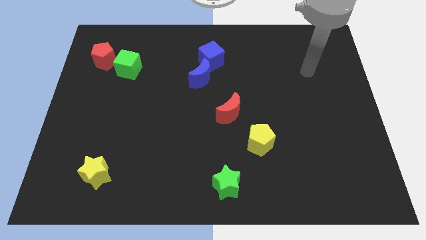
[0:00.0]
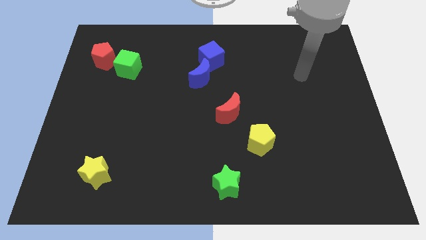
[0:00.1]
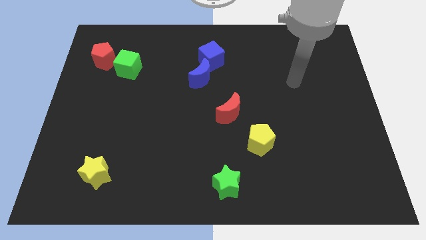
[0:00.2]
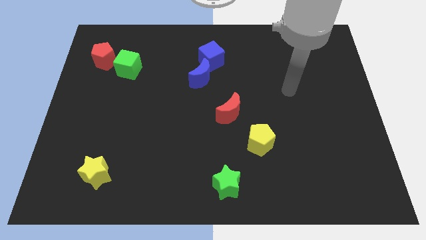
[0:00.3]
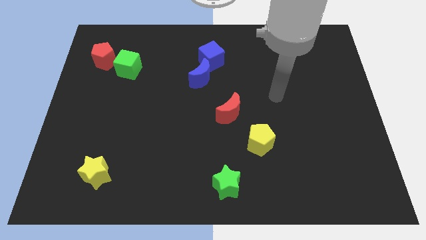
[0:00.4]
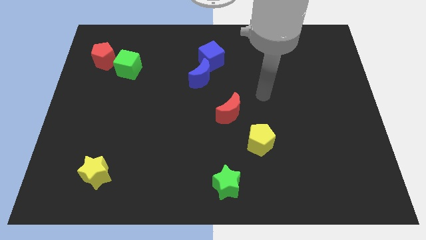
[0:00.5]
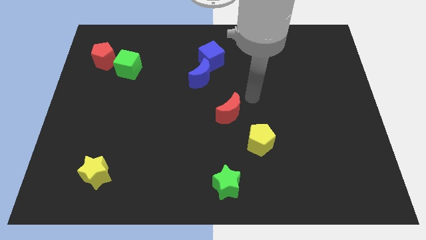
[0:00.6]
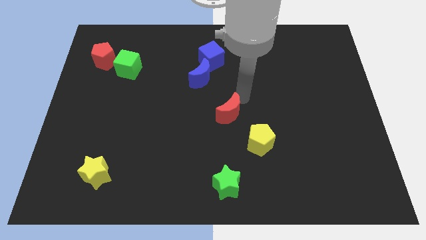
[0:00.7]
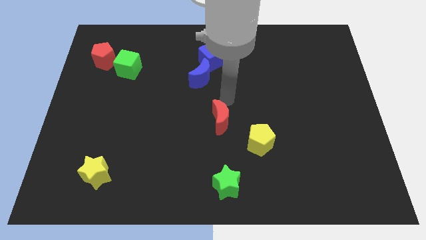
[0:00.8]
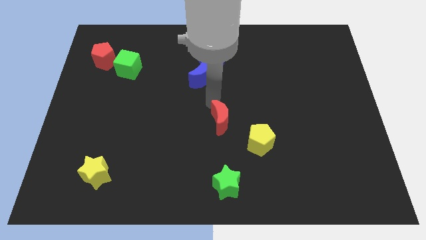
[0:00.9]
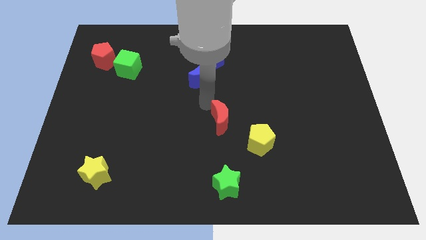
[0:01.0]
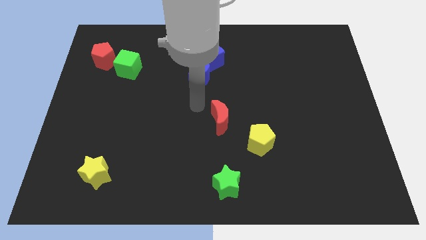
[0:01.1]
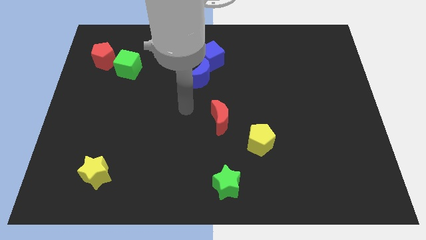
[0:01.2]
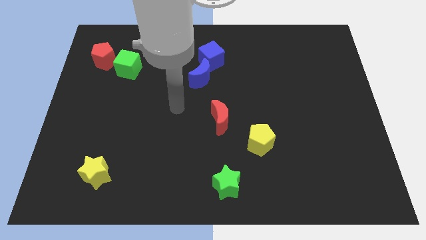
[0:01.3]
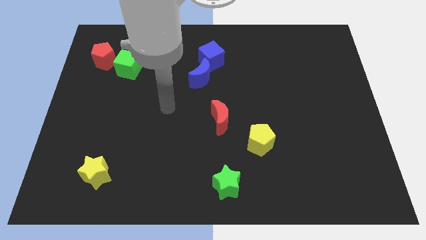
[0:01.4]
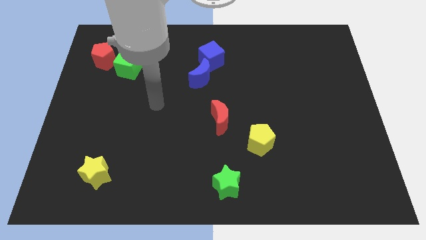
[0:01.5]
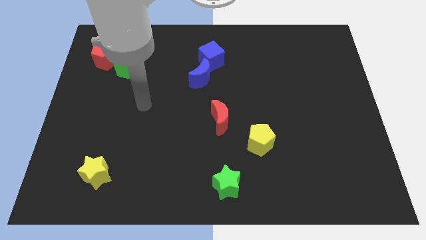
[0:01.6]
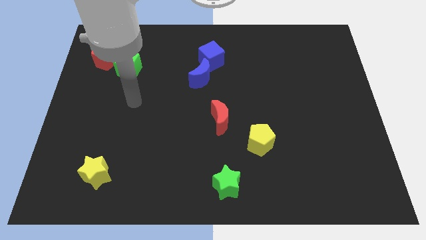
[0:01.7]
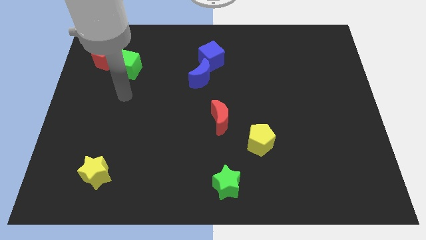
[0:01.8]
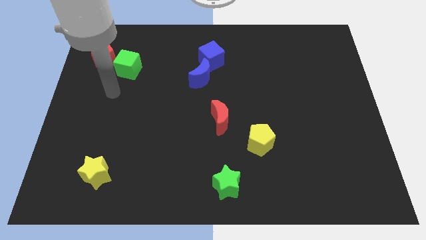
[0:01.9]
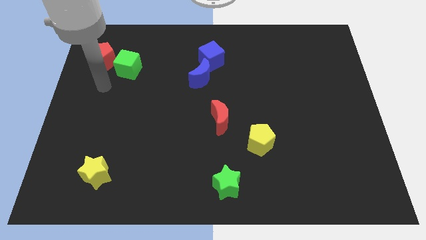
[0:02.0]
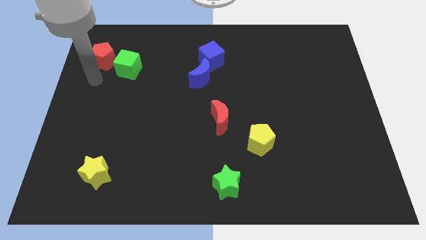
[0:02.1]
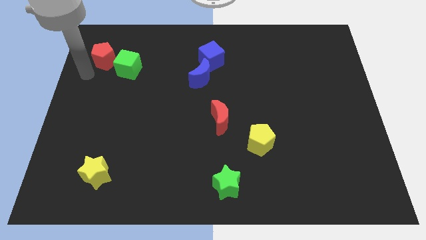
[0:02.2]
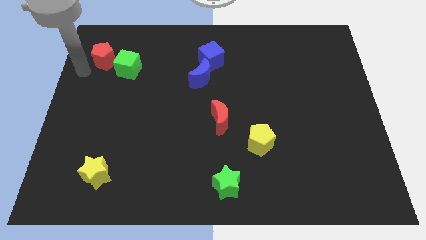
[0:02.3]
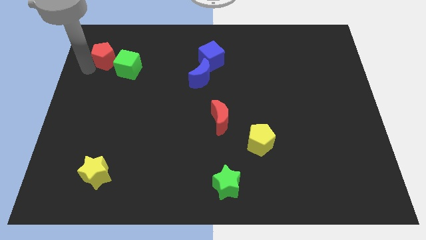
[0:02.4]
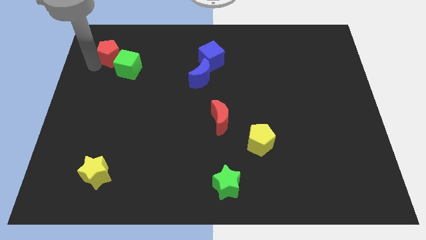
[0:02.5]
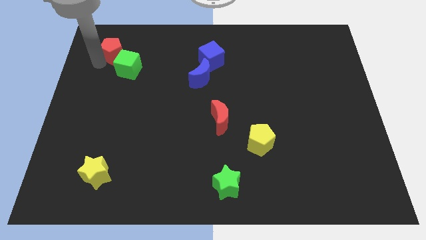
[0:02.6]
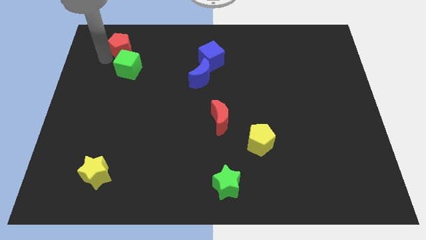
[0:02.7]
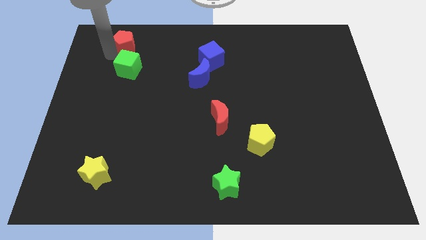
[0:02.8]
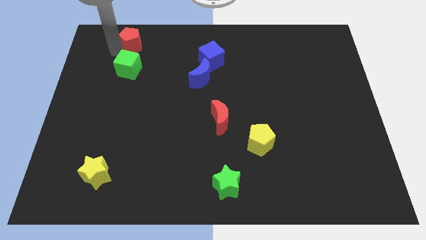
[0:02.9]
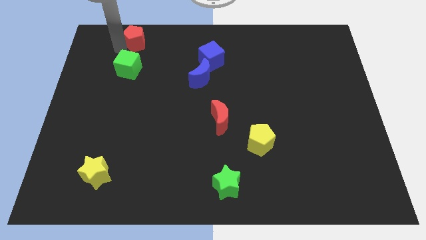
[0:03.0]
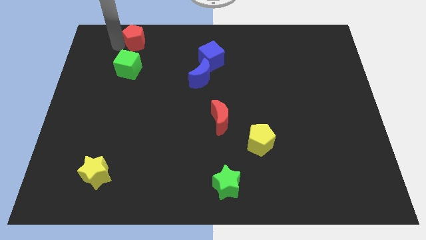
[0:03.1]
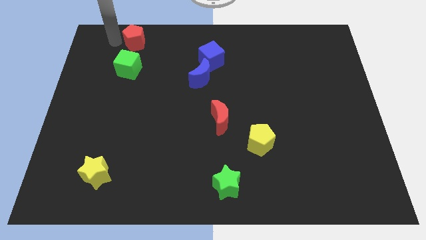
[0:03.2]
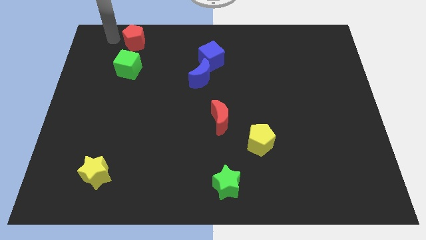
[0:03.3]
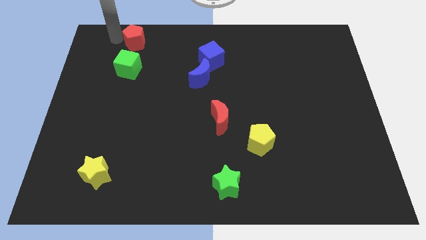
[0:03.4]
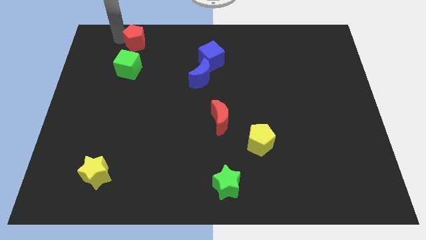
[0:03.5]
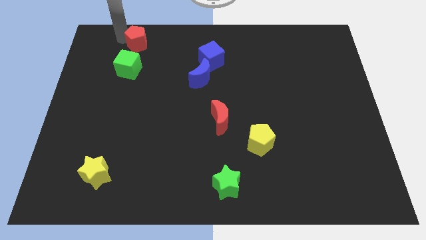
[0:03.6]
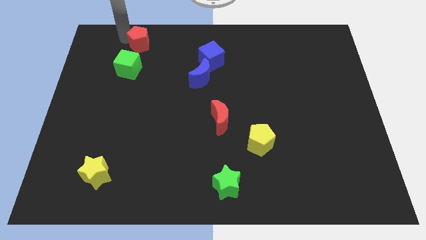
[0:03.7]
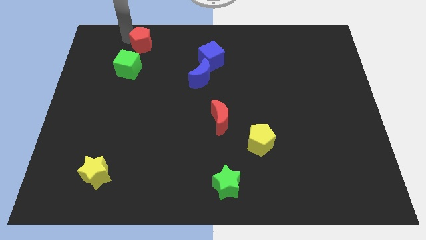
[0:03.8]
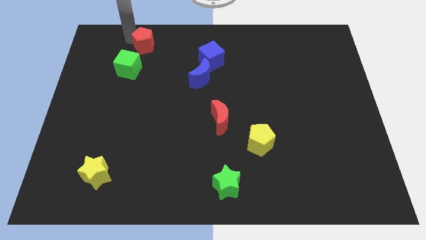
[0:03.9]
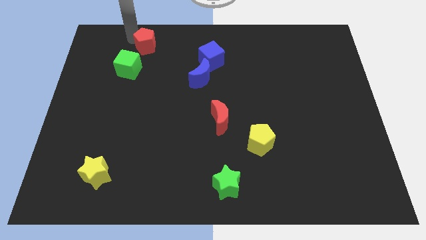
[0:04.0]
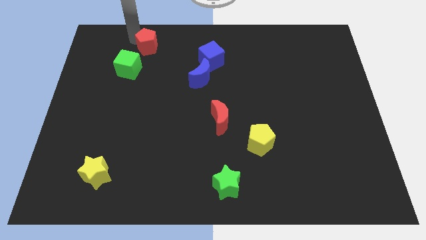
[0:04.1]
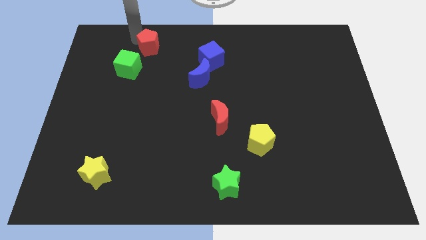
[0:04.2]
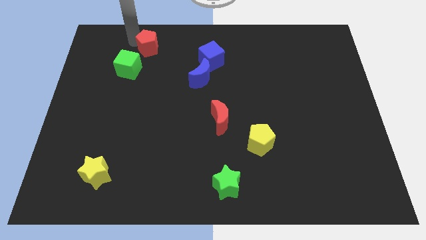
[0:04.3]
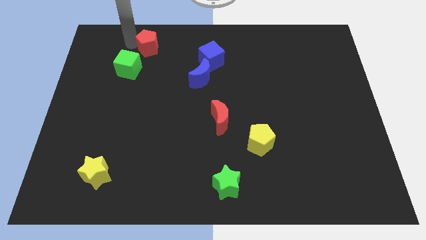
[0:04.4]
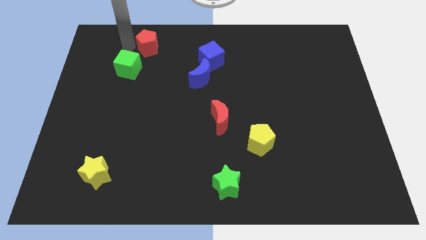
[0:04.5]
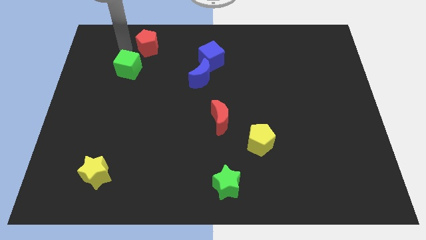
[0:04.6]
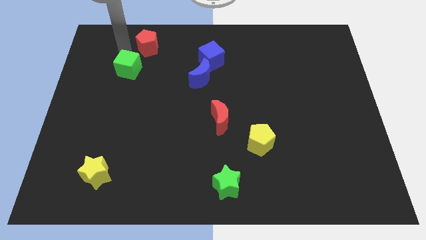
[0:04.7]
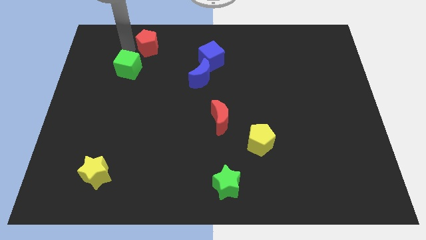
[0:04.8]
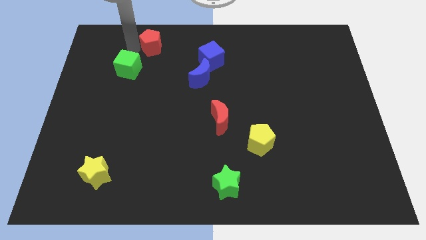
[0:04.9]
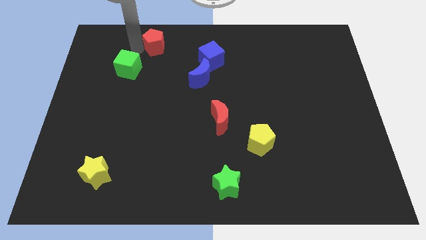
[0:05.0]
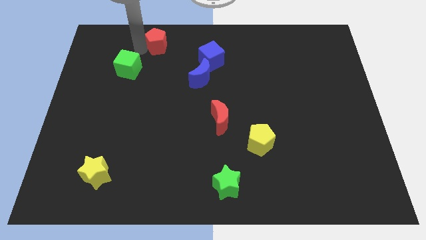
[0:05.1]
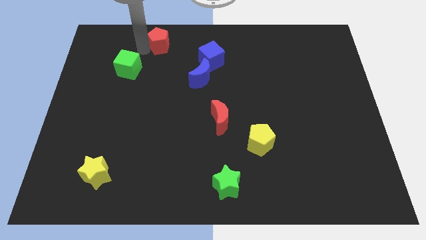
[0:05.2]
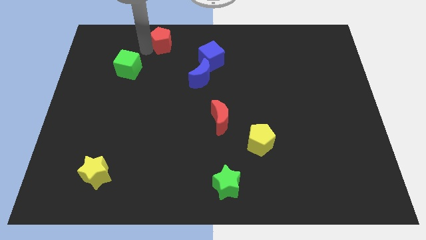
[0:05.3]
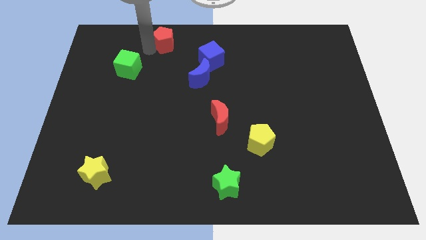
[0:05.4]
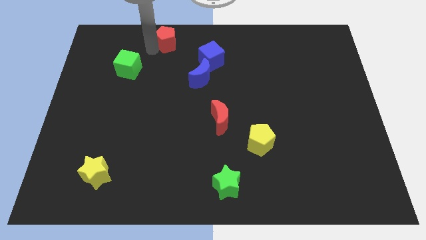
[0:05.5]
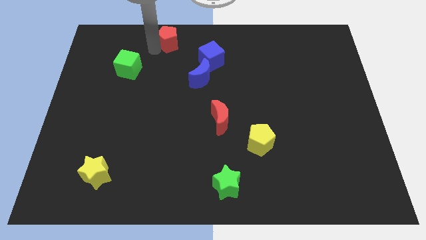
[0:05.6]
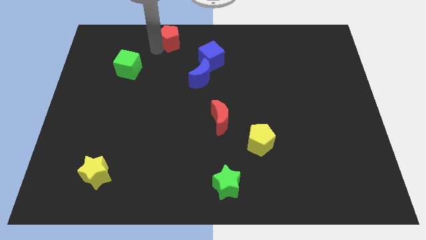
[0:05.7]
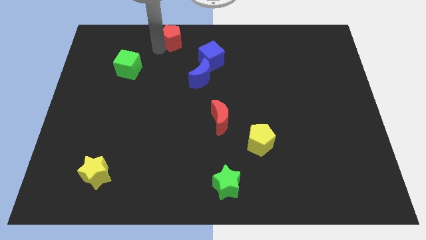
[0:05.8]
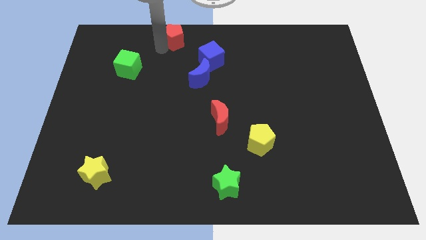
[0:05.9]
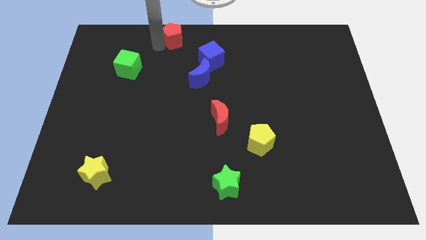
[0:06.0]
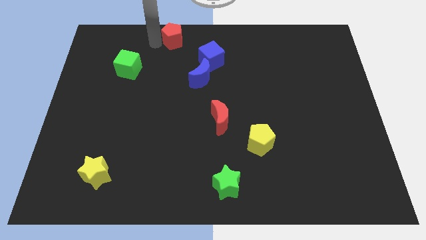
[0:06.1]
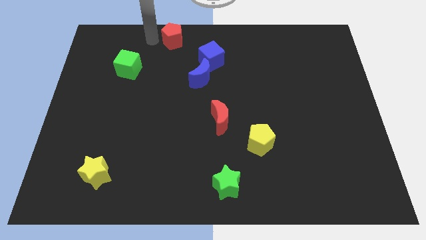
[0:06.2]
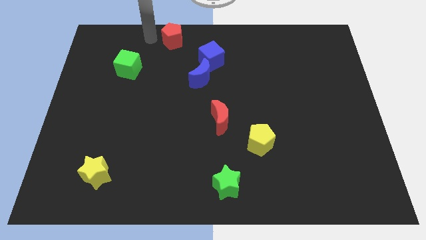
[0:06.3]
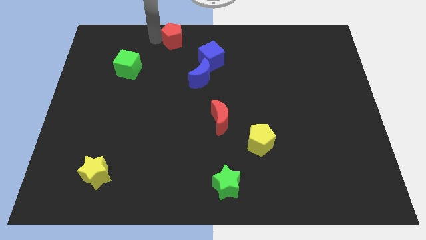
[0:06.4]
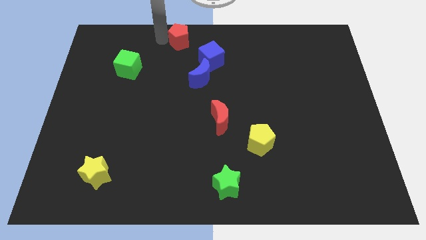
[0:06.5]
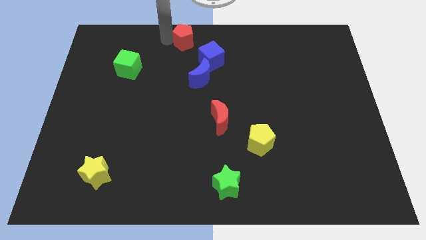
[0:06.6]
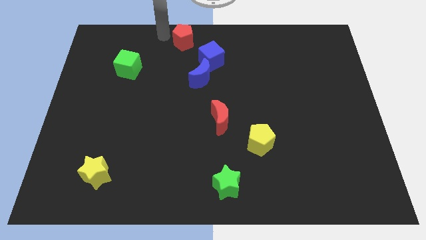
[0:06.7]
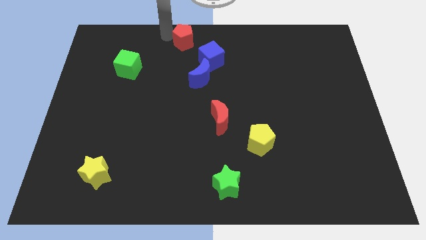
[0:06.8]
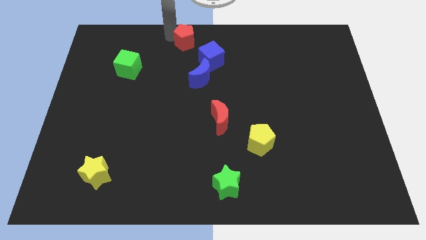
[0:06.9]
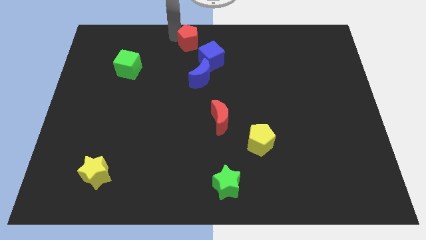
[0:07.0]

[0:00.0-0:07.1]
push the red pentagon to the right

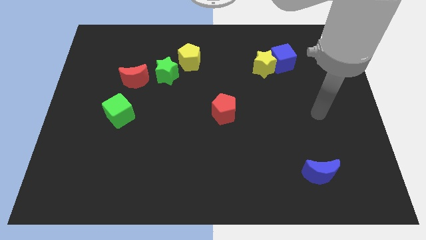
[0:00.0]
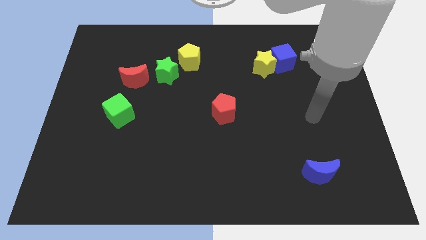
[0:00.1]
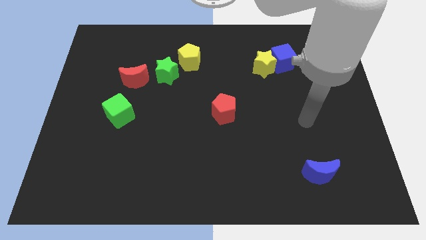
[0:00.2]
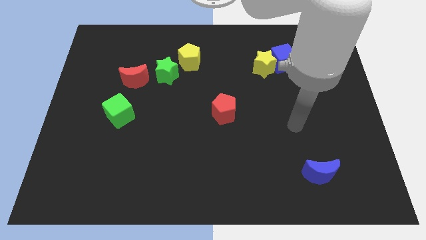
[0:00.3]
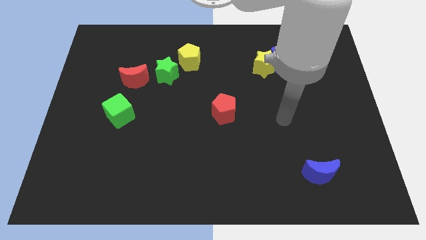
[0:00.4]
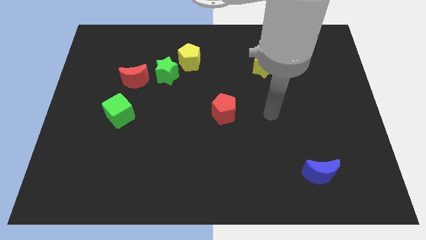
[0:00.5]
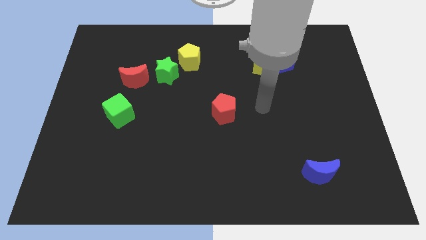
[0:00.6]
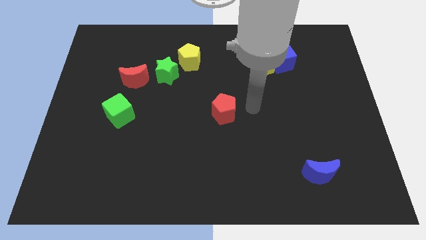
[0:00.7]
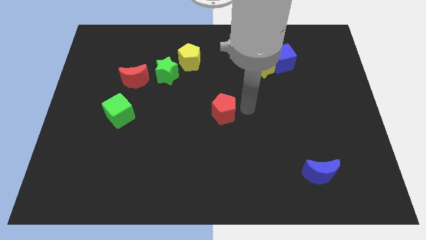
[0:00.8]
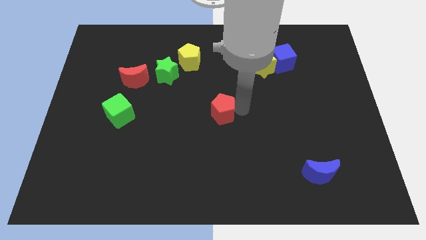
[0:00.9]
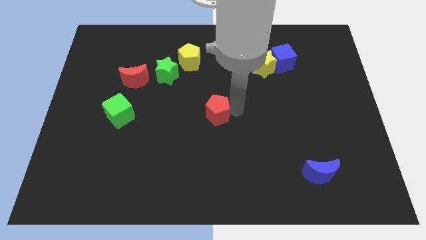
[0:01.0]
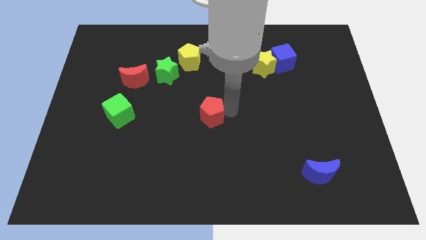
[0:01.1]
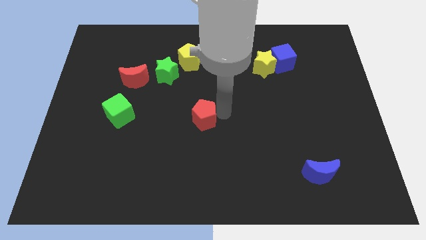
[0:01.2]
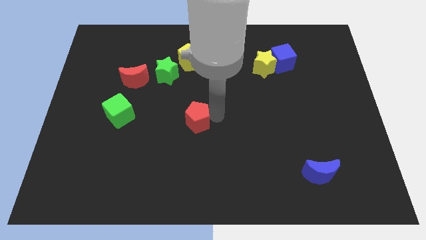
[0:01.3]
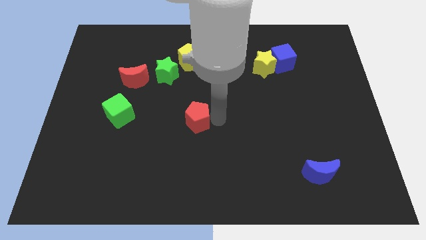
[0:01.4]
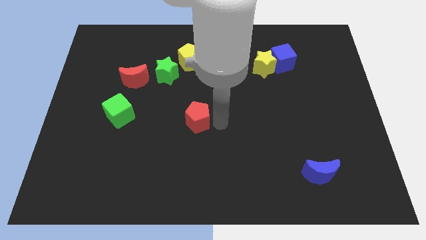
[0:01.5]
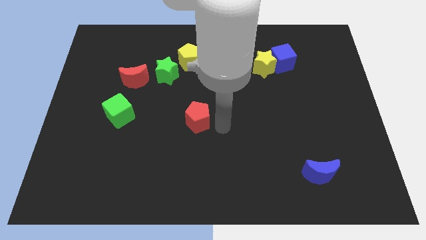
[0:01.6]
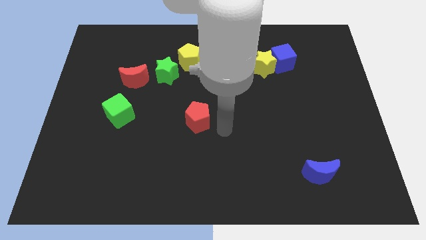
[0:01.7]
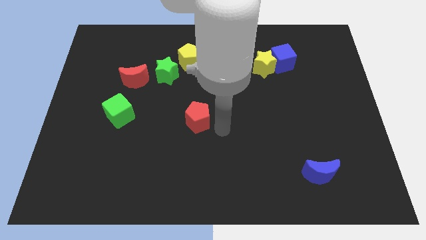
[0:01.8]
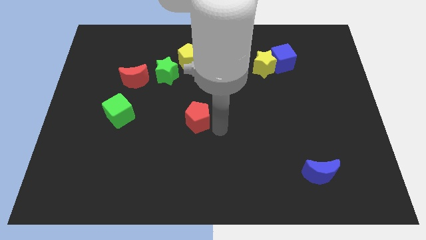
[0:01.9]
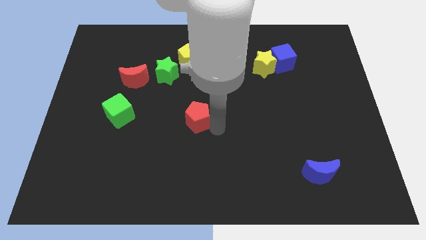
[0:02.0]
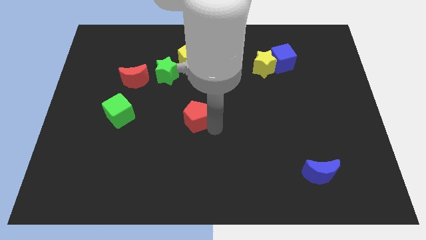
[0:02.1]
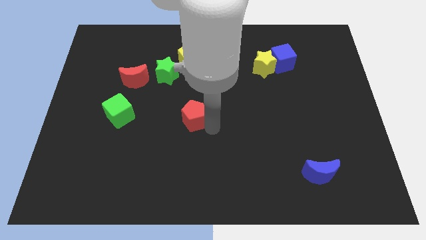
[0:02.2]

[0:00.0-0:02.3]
move the red pentagon to the left a little bit
